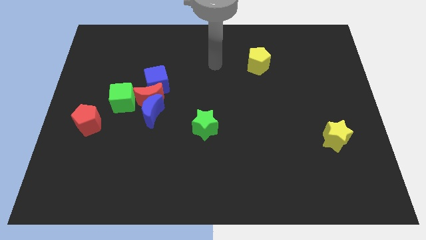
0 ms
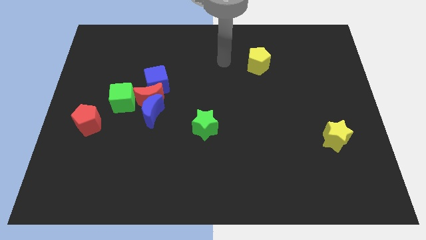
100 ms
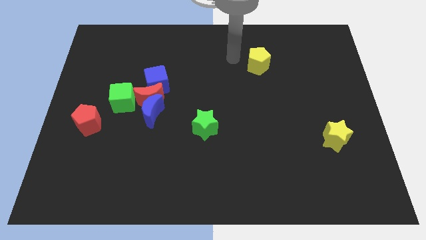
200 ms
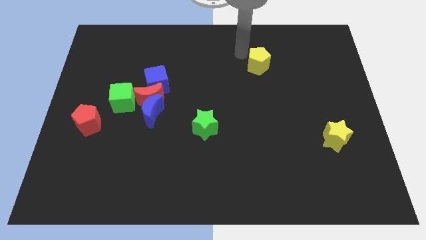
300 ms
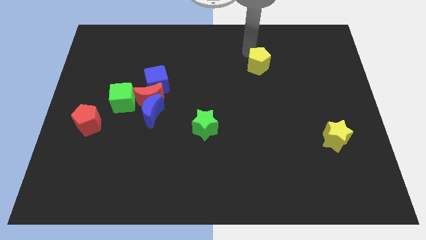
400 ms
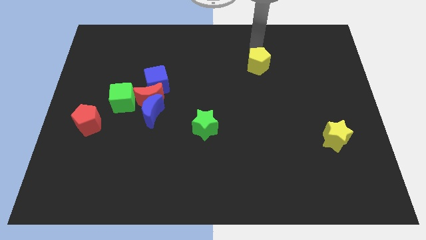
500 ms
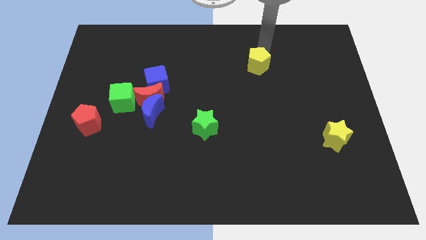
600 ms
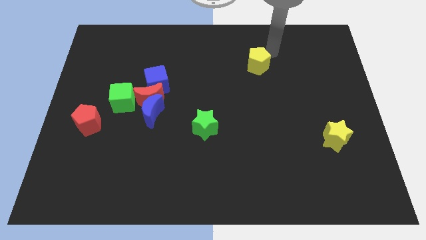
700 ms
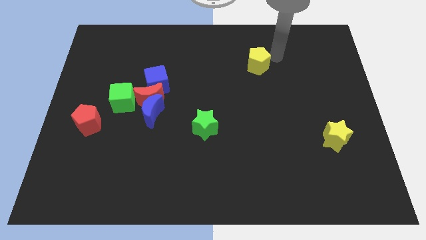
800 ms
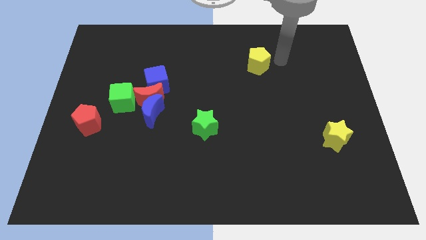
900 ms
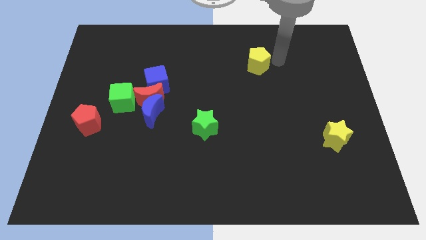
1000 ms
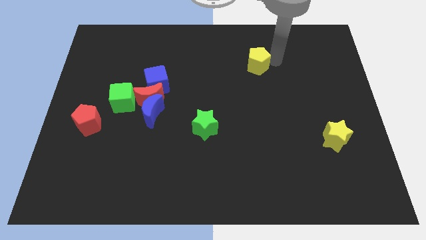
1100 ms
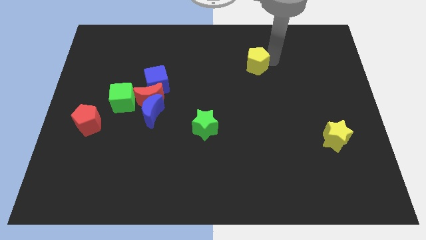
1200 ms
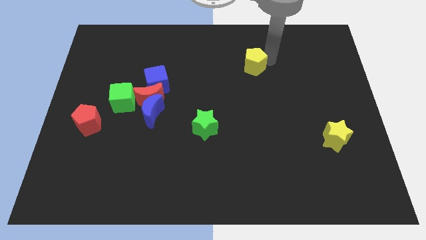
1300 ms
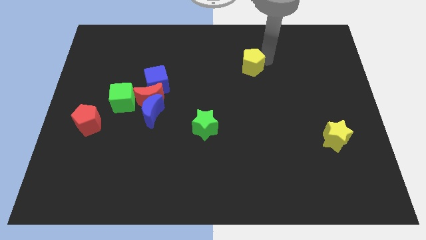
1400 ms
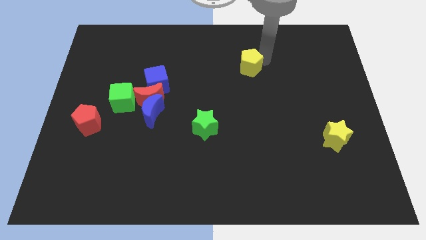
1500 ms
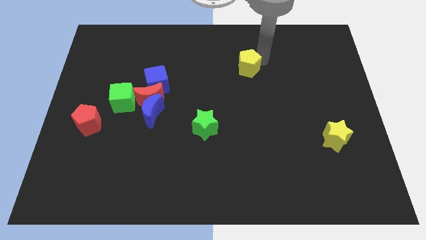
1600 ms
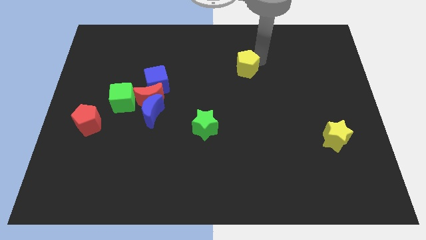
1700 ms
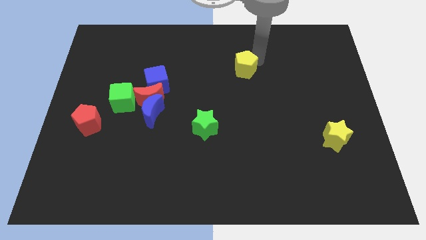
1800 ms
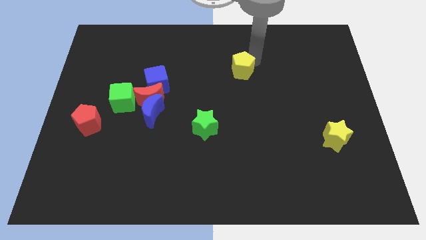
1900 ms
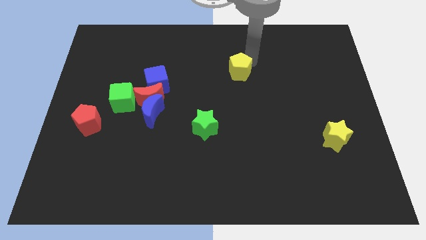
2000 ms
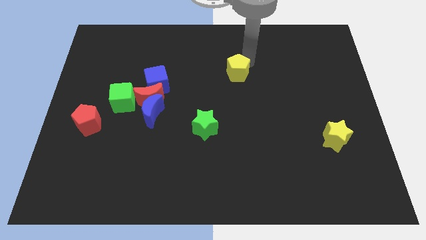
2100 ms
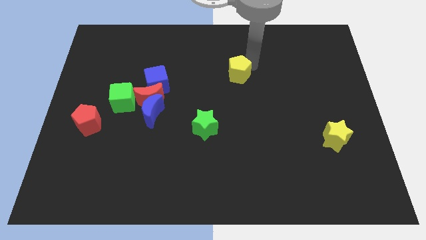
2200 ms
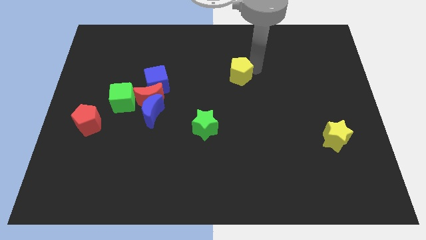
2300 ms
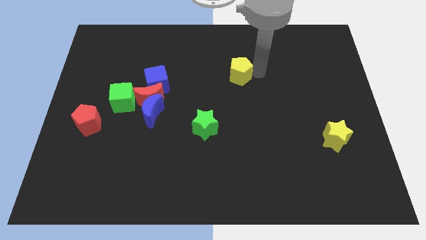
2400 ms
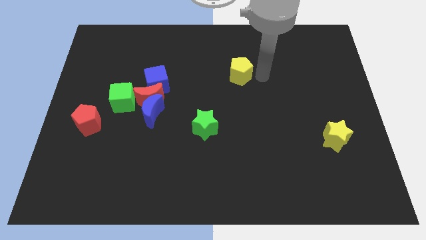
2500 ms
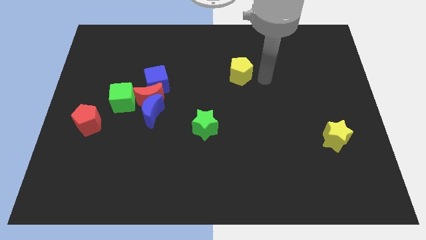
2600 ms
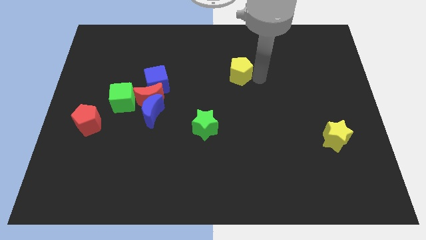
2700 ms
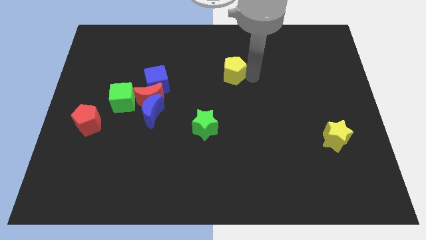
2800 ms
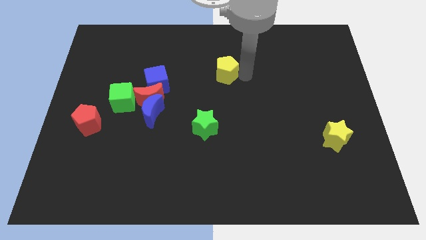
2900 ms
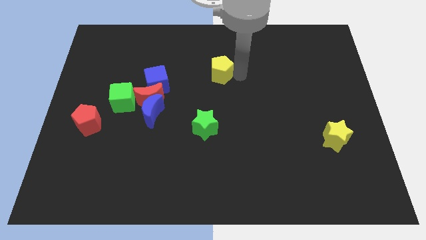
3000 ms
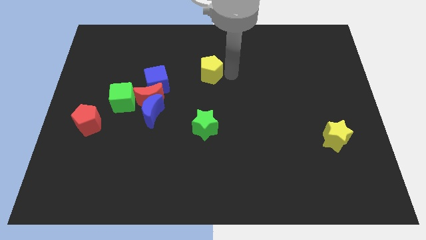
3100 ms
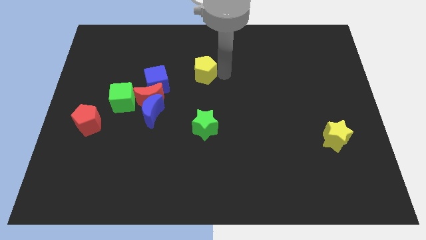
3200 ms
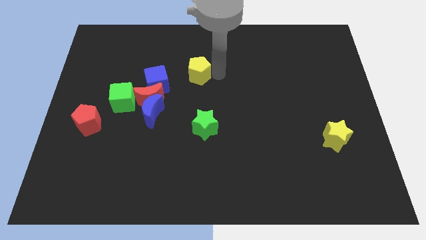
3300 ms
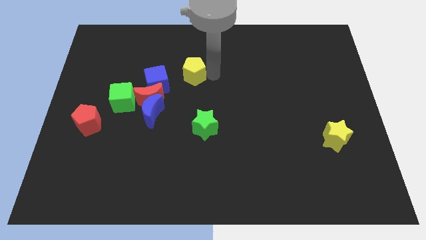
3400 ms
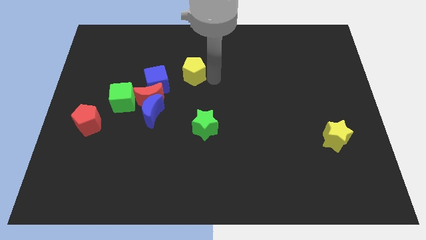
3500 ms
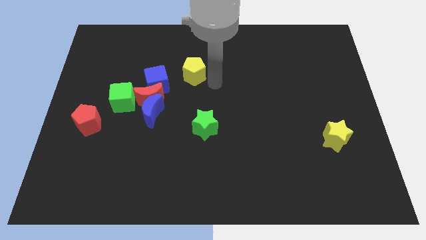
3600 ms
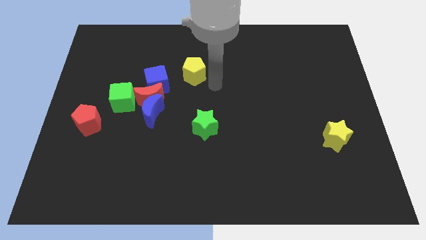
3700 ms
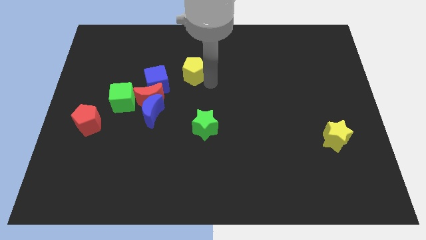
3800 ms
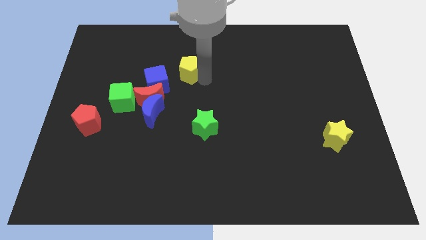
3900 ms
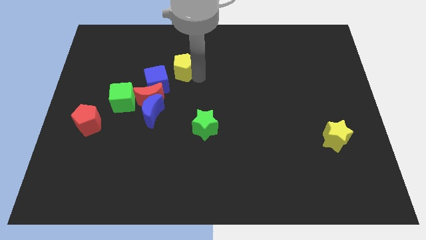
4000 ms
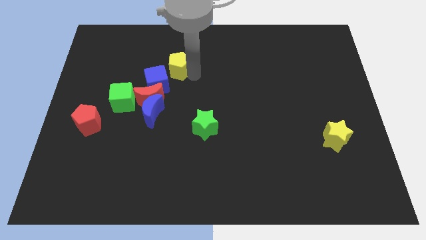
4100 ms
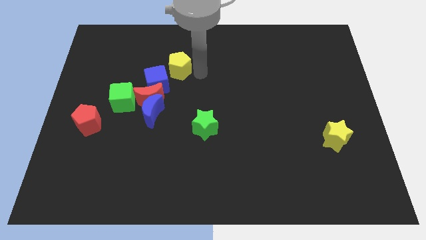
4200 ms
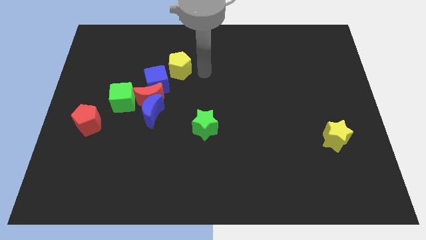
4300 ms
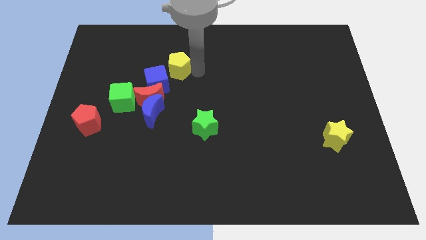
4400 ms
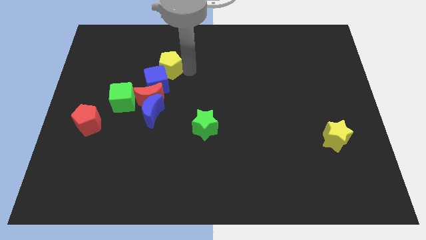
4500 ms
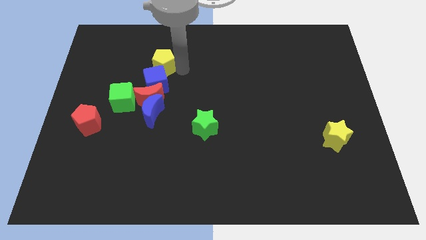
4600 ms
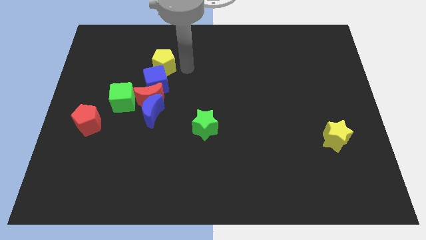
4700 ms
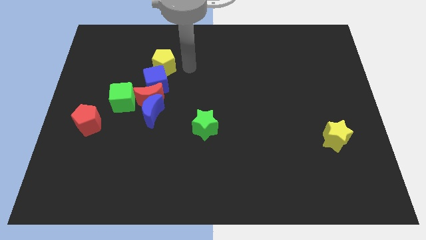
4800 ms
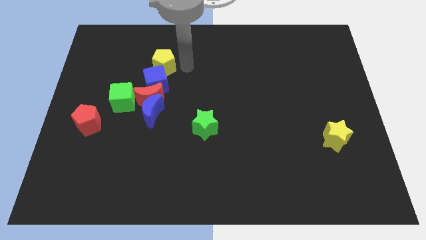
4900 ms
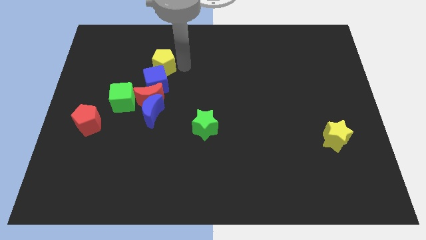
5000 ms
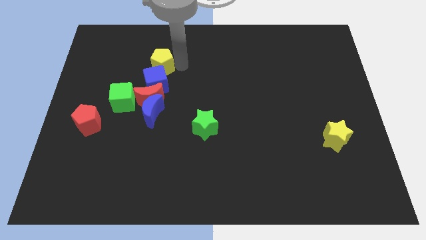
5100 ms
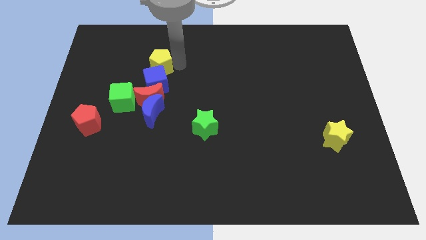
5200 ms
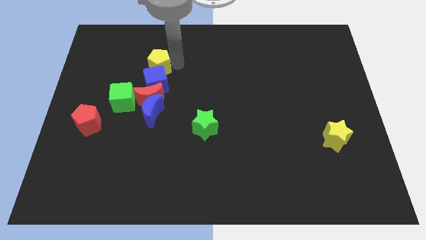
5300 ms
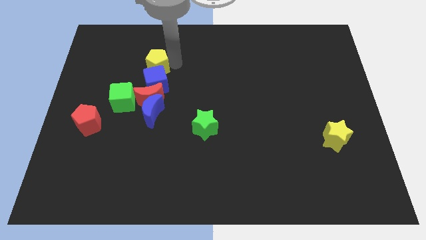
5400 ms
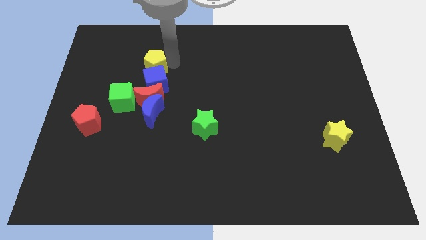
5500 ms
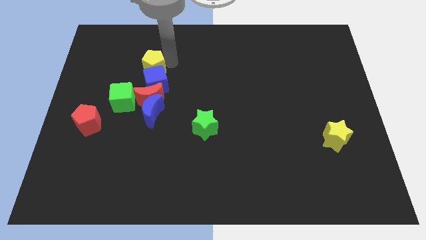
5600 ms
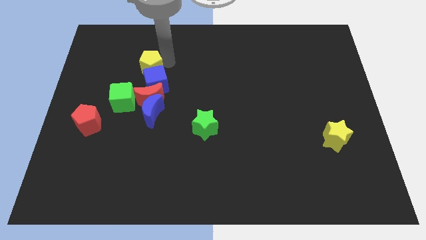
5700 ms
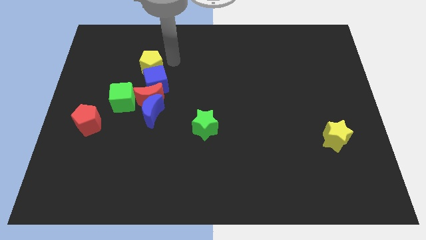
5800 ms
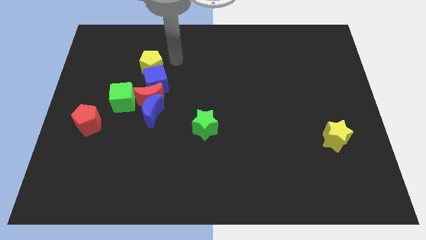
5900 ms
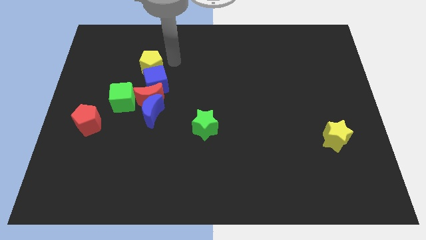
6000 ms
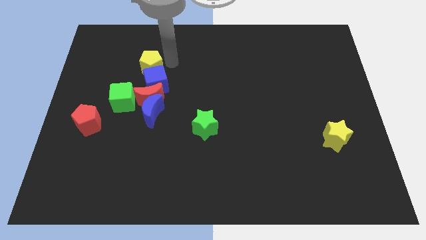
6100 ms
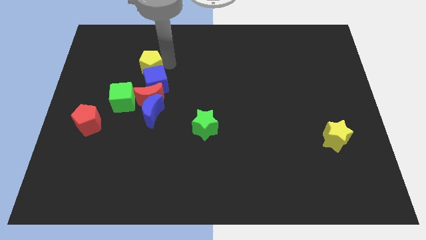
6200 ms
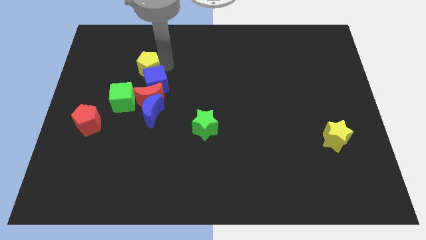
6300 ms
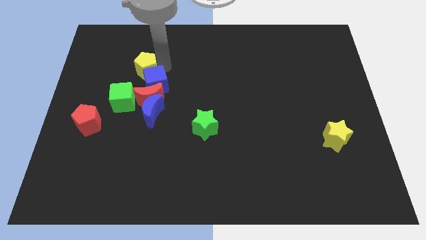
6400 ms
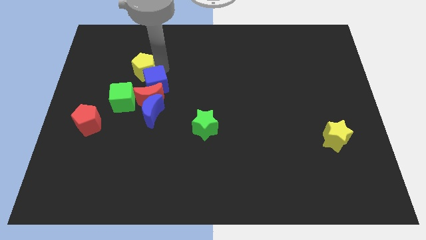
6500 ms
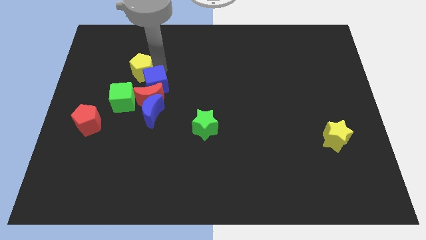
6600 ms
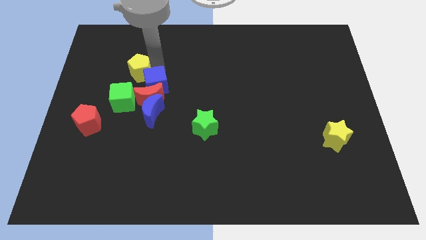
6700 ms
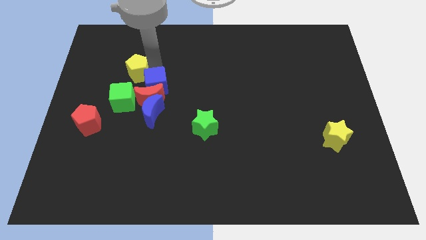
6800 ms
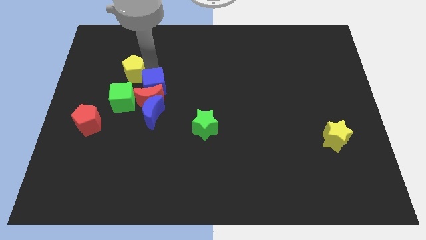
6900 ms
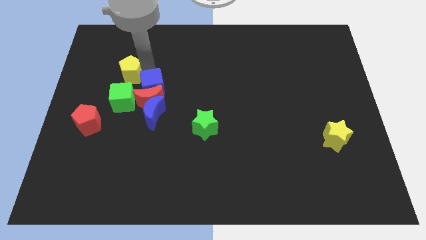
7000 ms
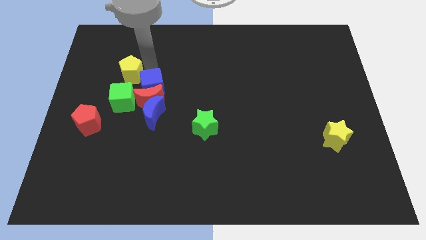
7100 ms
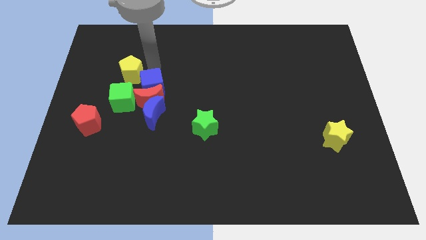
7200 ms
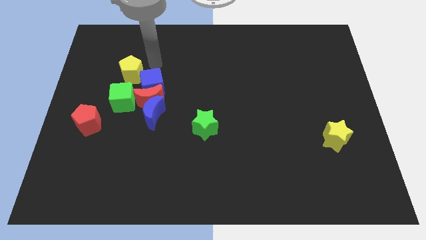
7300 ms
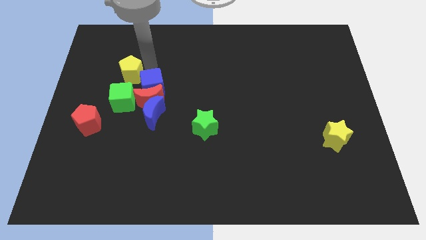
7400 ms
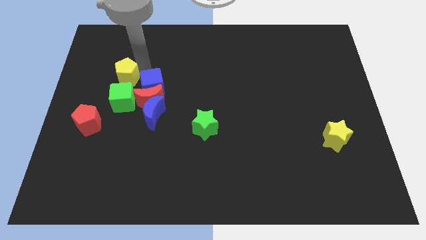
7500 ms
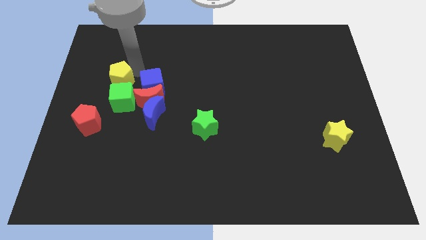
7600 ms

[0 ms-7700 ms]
slide the yellow pentagon to the top left side of the green cube

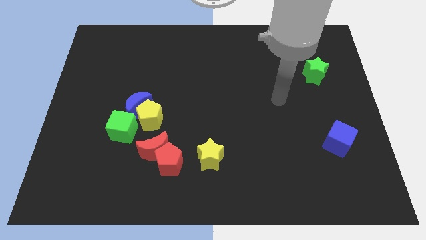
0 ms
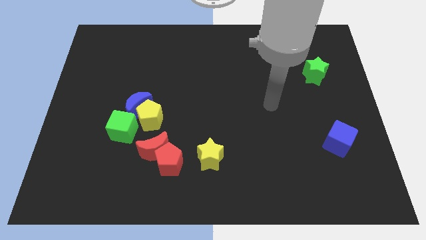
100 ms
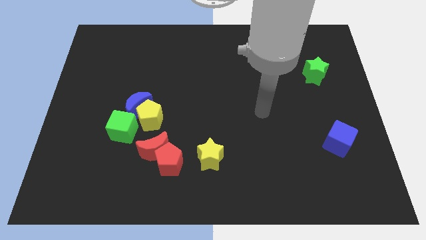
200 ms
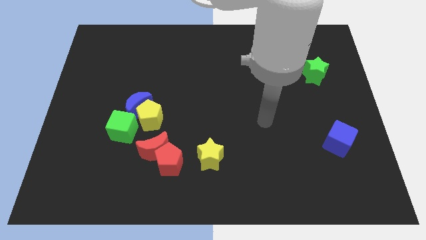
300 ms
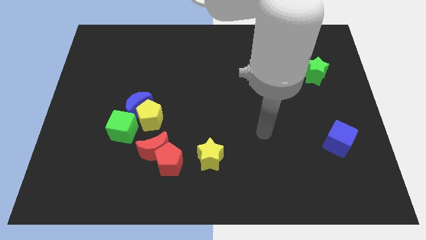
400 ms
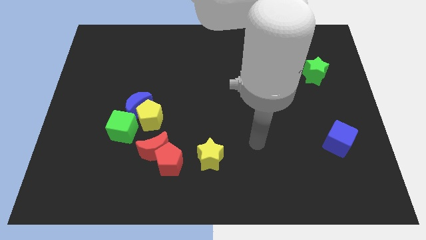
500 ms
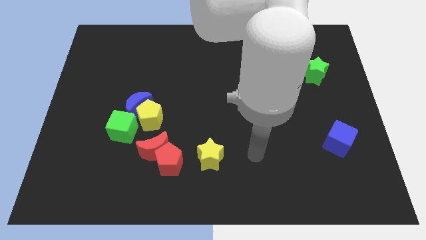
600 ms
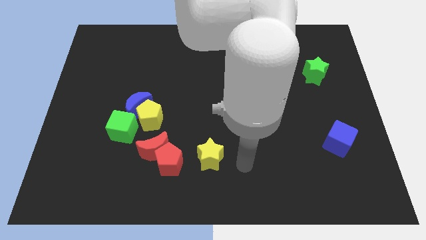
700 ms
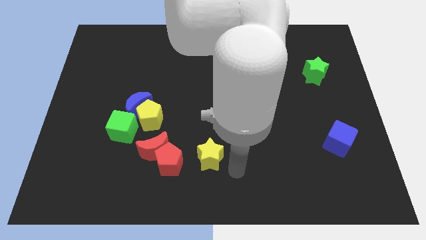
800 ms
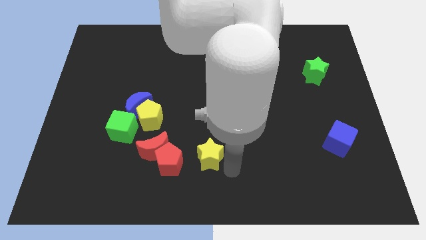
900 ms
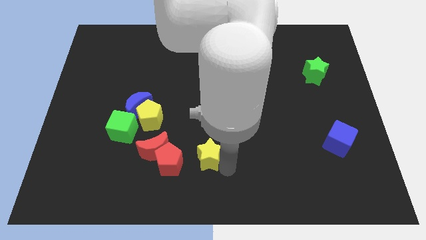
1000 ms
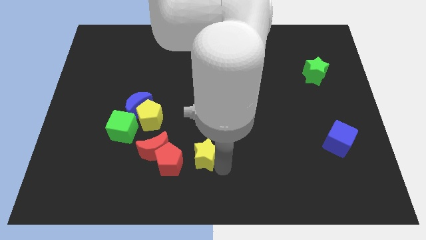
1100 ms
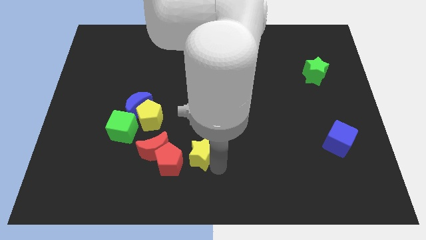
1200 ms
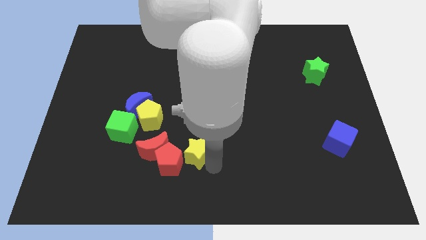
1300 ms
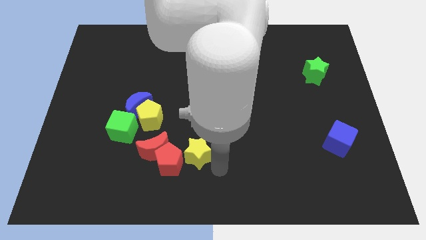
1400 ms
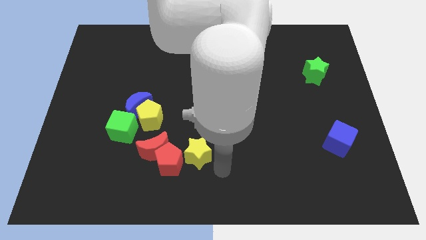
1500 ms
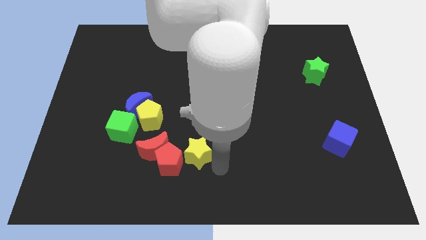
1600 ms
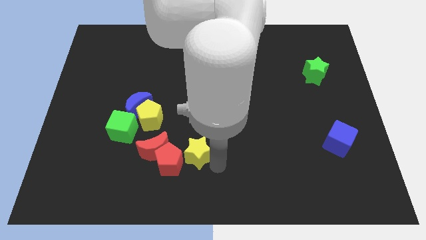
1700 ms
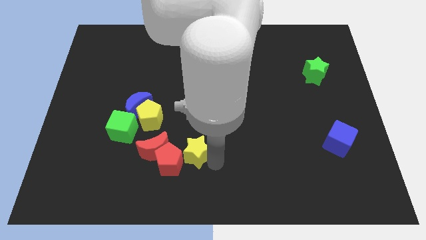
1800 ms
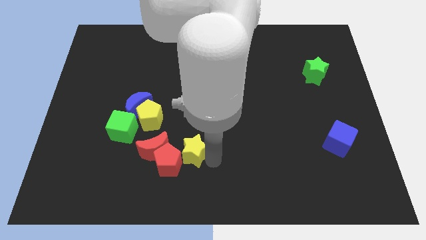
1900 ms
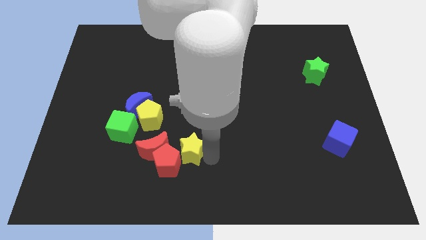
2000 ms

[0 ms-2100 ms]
slide the yellow star diagonally down and to the right of the yellow pentagon
